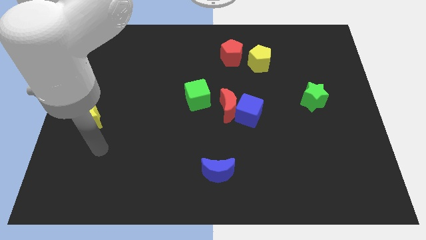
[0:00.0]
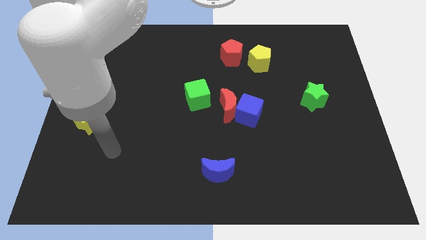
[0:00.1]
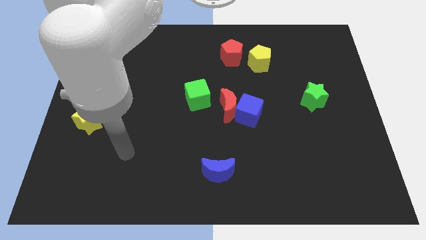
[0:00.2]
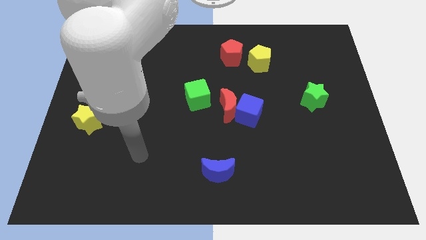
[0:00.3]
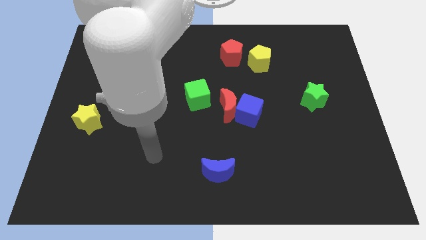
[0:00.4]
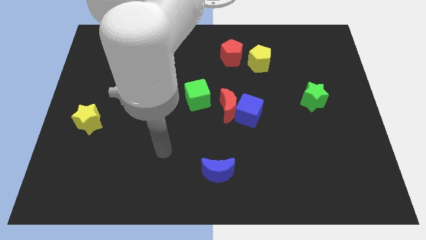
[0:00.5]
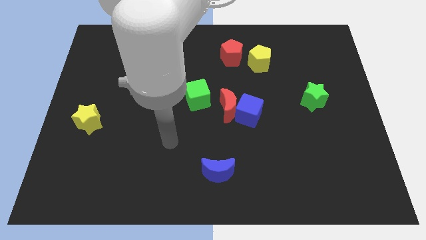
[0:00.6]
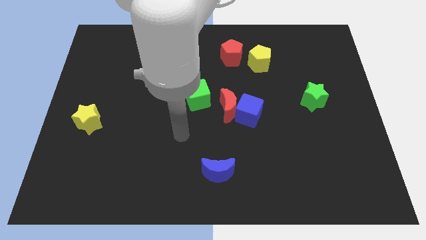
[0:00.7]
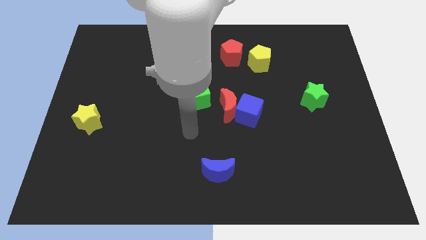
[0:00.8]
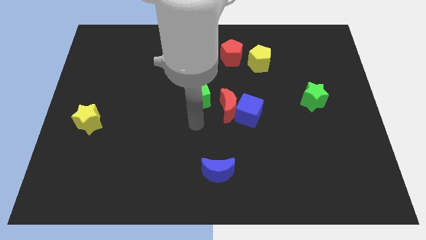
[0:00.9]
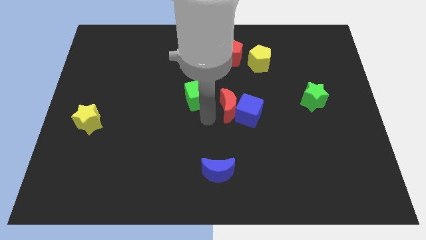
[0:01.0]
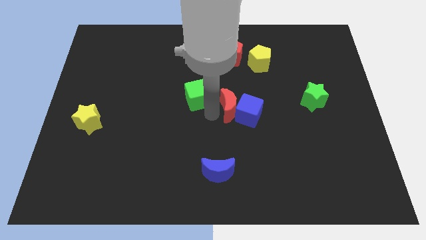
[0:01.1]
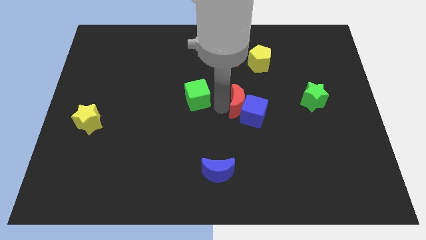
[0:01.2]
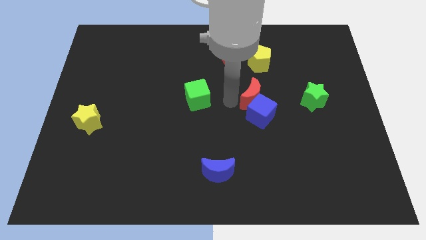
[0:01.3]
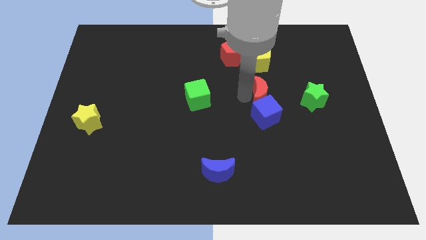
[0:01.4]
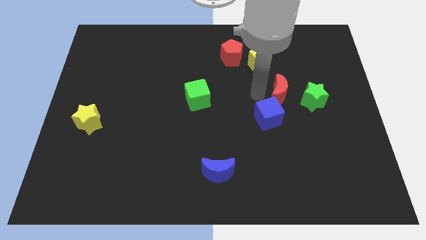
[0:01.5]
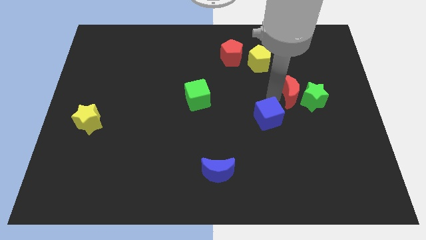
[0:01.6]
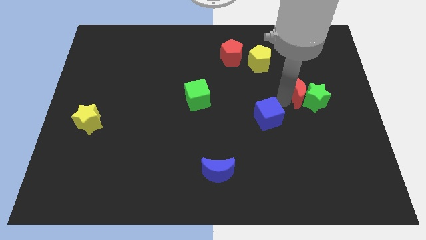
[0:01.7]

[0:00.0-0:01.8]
move the blue cube away from the red moon

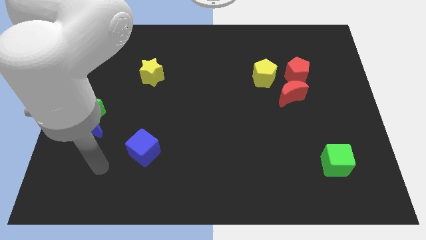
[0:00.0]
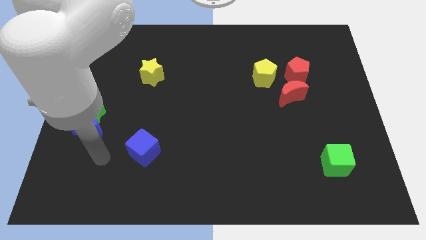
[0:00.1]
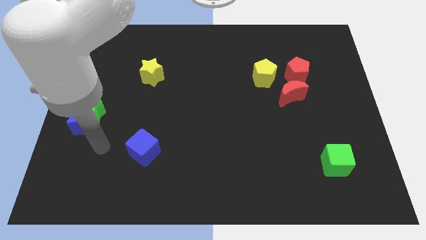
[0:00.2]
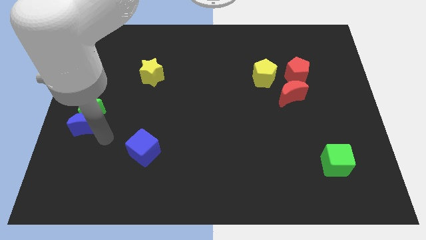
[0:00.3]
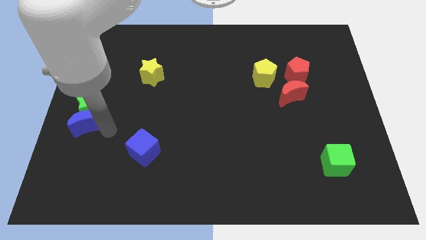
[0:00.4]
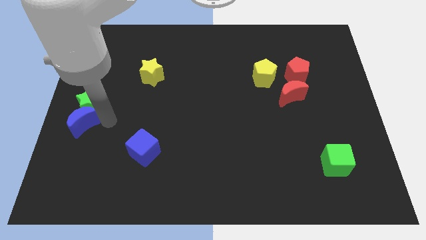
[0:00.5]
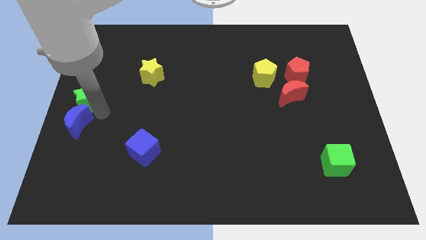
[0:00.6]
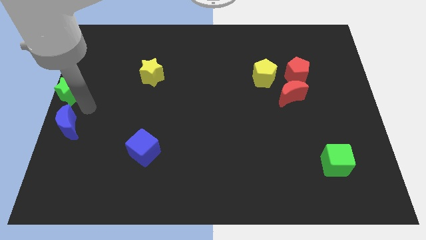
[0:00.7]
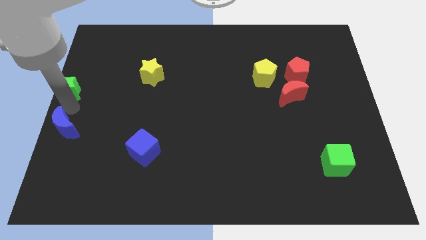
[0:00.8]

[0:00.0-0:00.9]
separate the blue moon from the green star

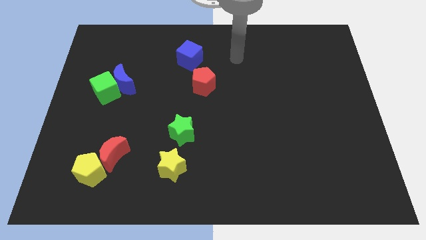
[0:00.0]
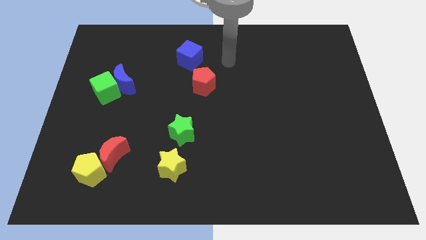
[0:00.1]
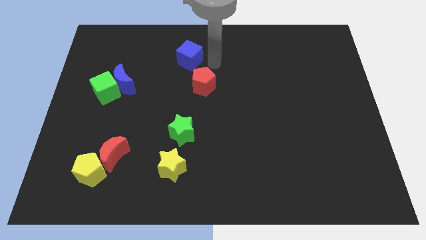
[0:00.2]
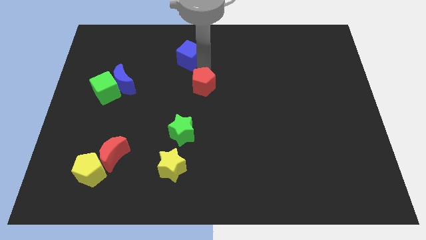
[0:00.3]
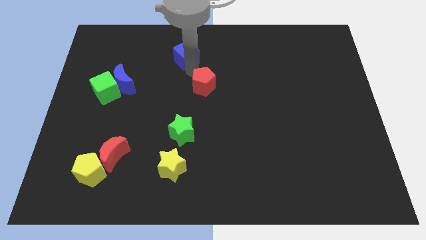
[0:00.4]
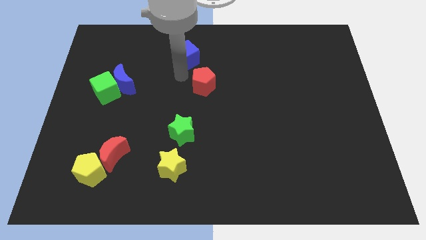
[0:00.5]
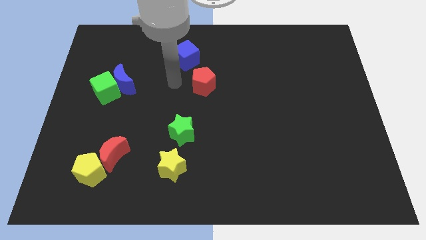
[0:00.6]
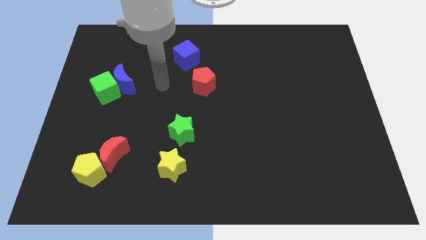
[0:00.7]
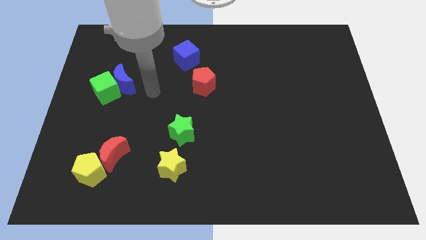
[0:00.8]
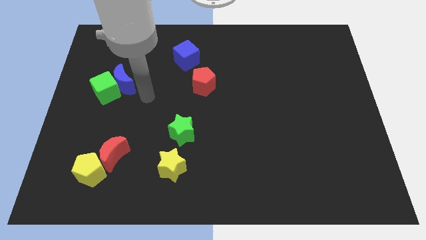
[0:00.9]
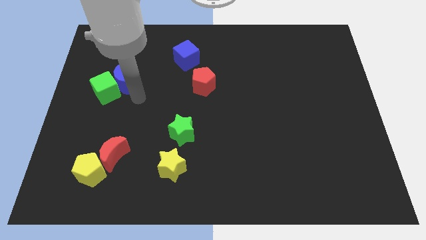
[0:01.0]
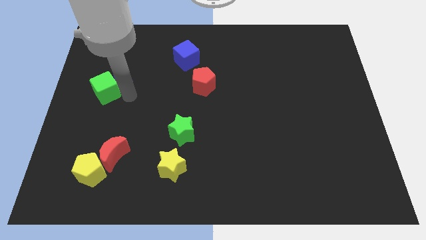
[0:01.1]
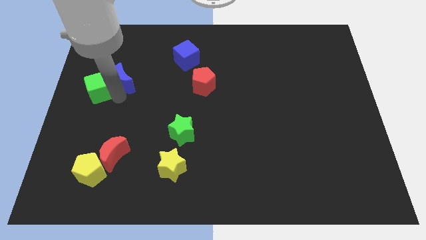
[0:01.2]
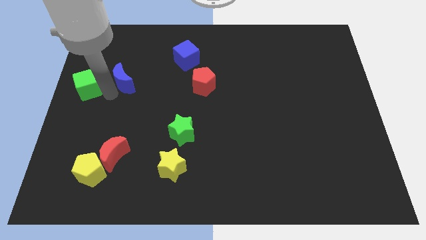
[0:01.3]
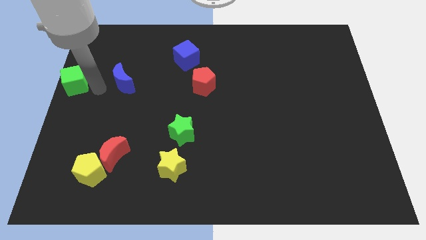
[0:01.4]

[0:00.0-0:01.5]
separate the blue moon from the green cube

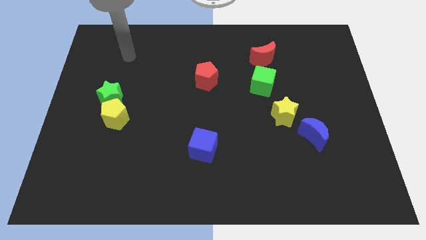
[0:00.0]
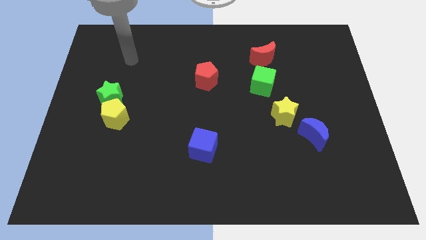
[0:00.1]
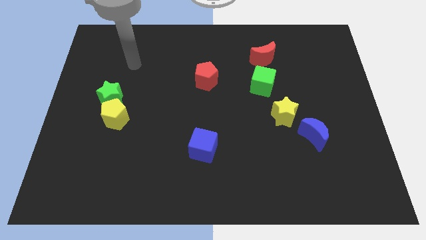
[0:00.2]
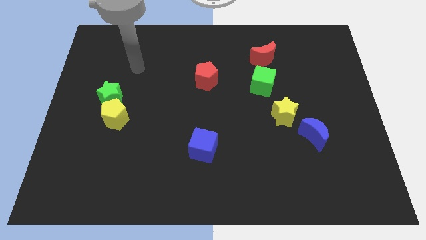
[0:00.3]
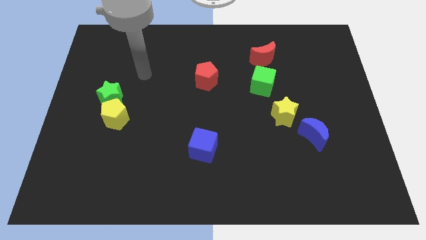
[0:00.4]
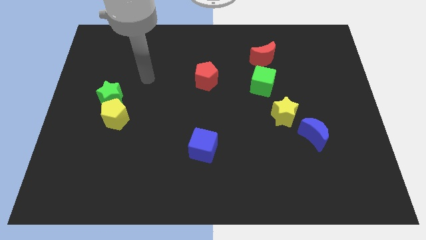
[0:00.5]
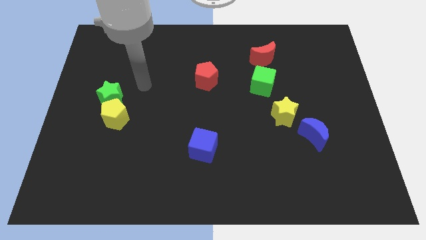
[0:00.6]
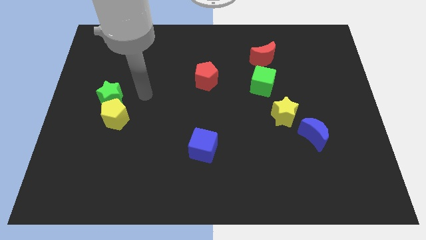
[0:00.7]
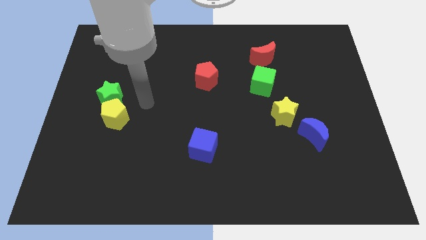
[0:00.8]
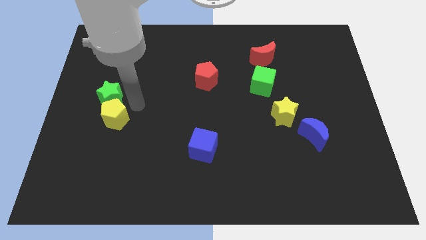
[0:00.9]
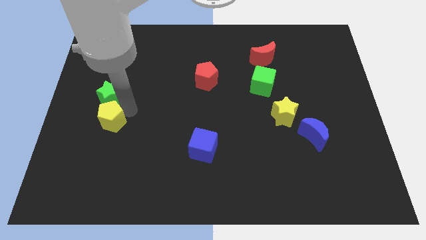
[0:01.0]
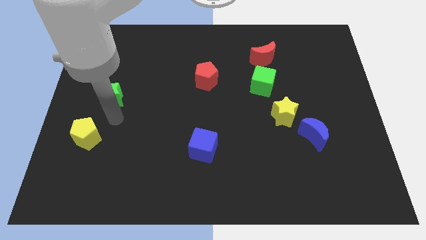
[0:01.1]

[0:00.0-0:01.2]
move the green star away from the yellow pentagon

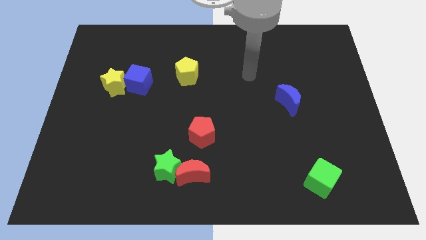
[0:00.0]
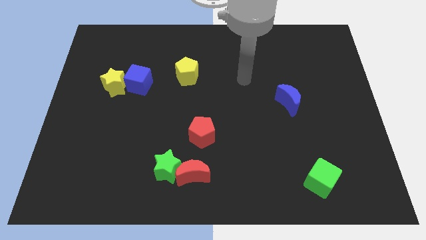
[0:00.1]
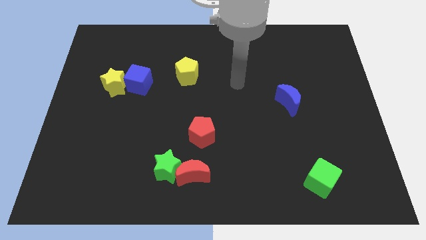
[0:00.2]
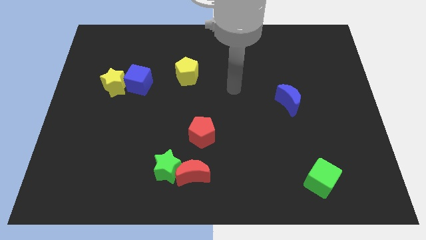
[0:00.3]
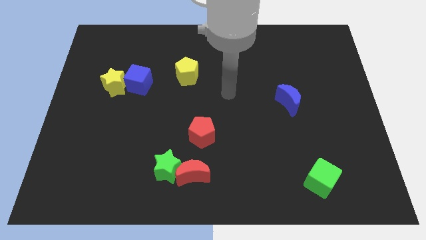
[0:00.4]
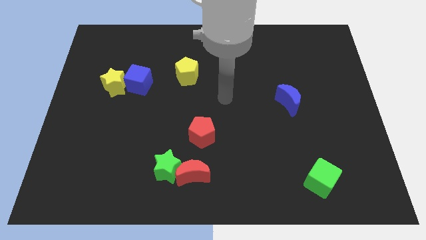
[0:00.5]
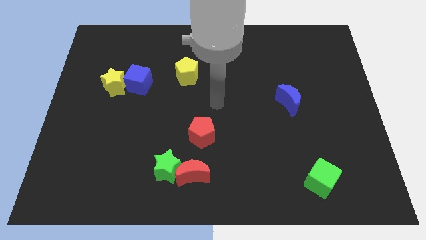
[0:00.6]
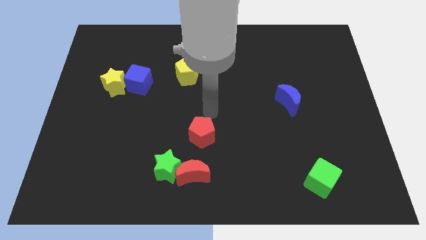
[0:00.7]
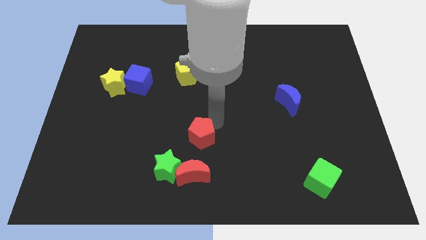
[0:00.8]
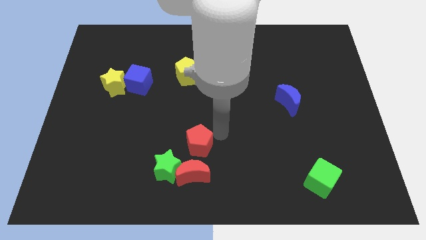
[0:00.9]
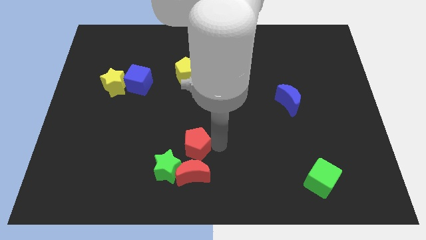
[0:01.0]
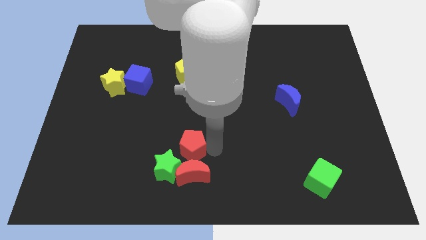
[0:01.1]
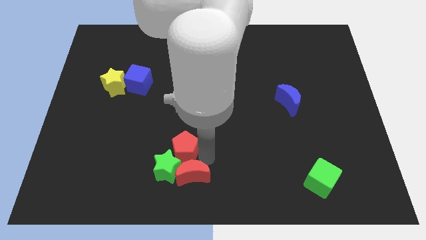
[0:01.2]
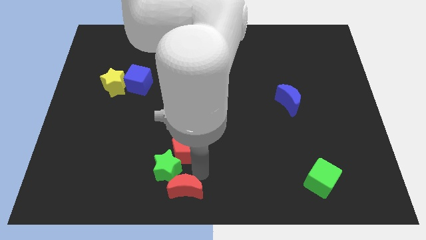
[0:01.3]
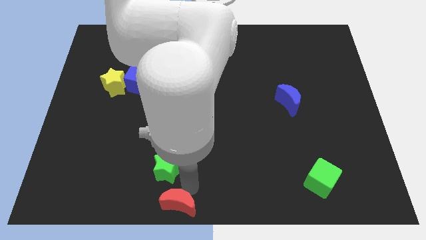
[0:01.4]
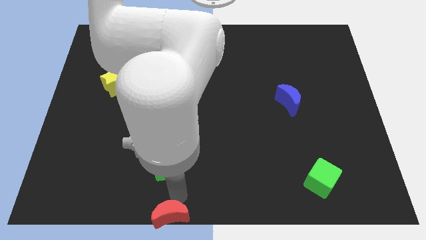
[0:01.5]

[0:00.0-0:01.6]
separate the green star from the red moon

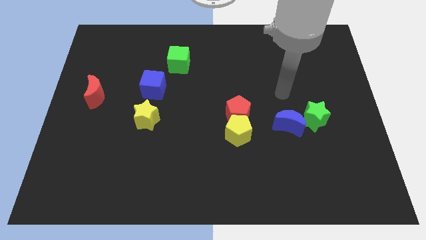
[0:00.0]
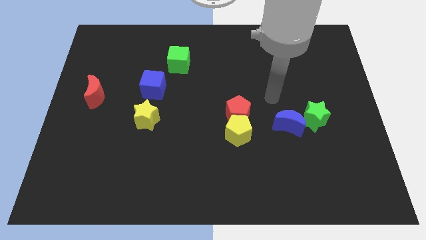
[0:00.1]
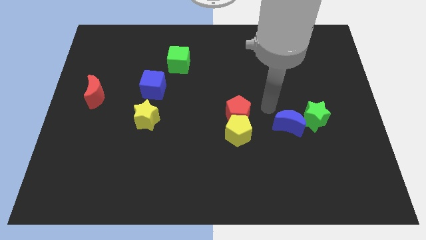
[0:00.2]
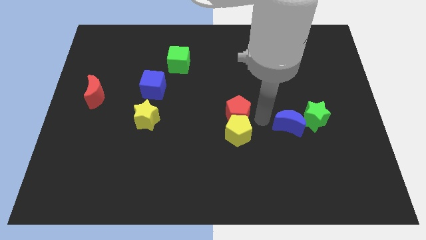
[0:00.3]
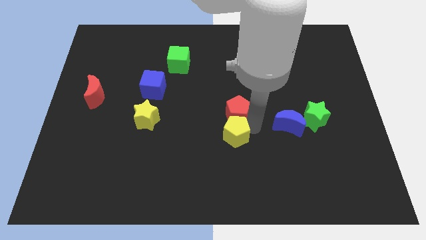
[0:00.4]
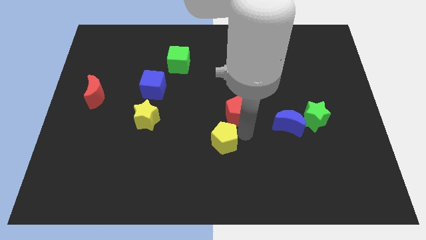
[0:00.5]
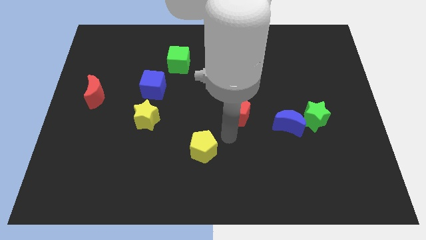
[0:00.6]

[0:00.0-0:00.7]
separate the red pentagon from the yellow pentagon

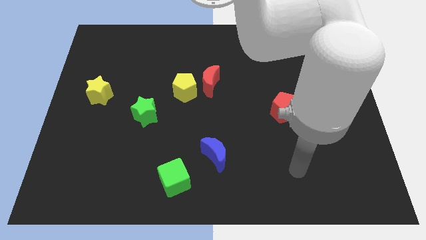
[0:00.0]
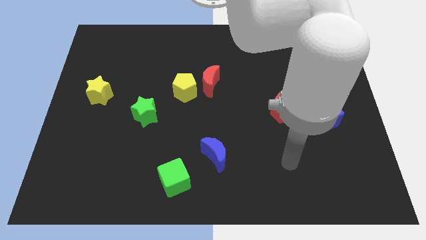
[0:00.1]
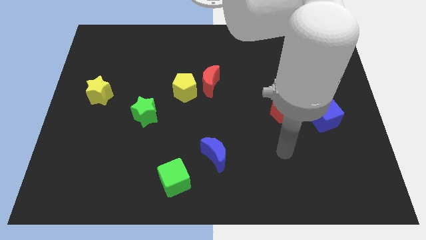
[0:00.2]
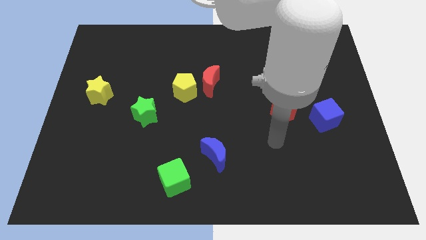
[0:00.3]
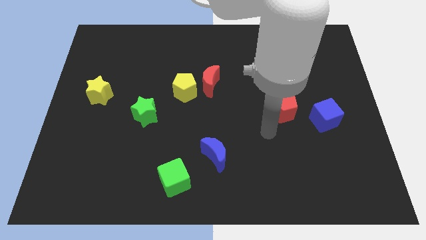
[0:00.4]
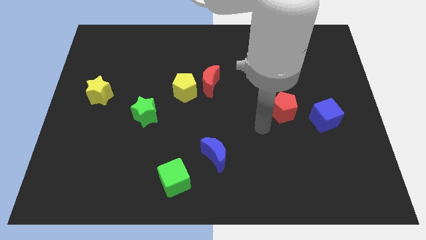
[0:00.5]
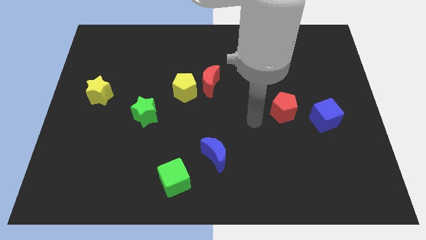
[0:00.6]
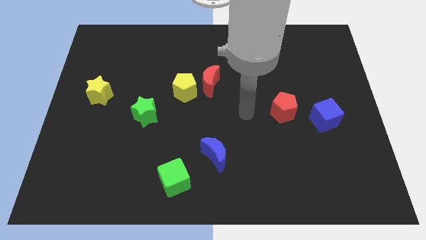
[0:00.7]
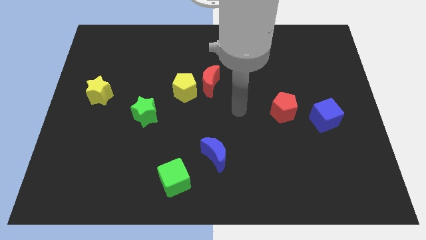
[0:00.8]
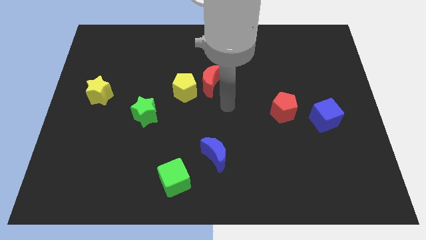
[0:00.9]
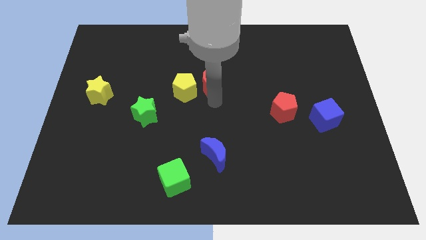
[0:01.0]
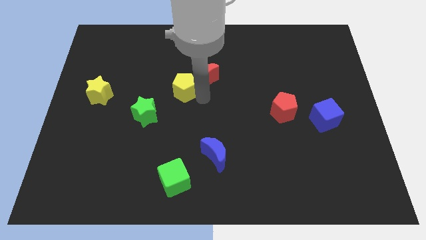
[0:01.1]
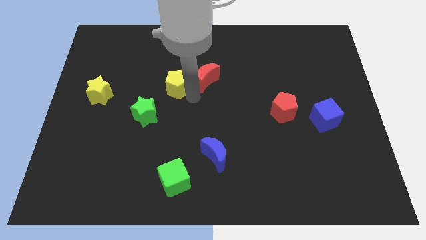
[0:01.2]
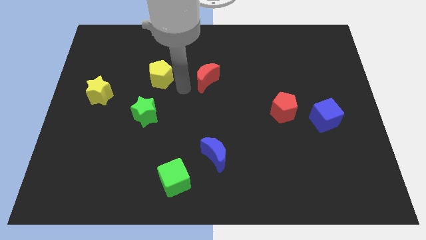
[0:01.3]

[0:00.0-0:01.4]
move the red moon away from the yellow pentagon

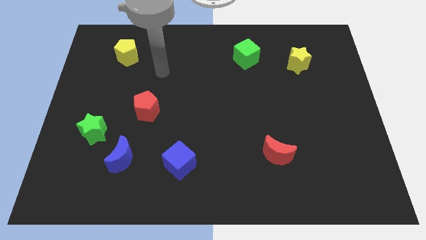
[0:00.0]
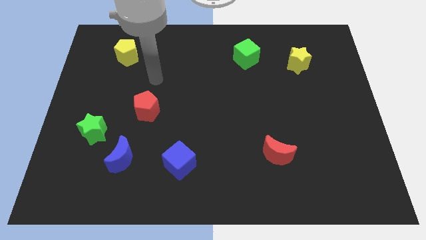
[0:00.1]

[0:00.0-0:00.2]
move the blue moon away from the green star
